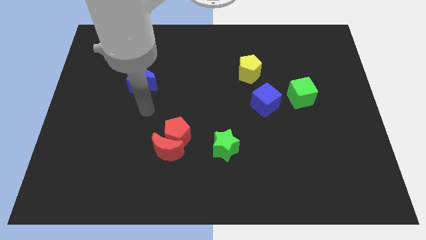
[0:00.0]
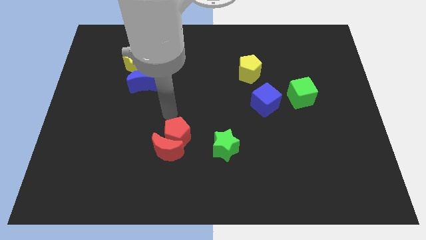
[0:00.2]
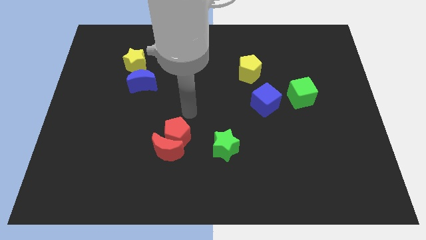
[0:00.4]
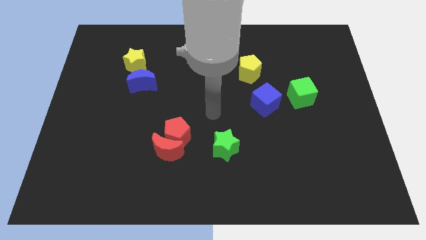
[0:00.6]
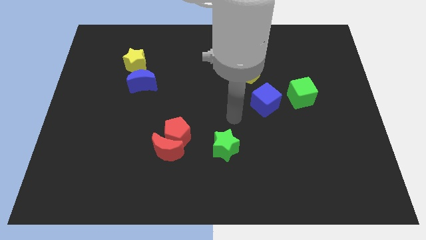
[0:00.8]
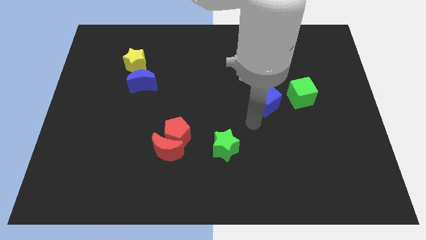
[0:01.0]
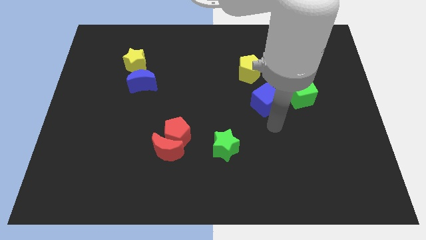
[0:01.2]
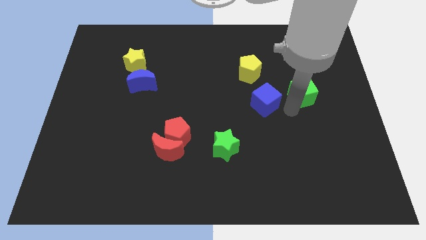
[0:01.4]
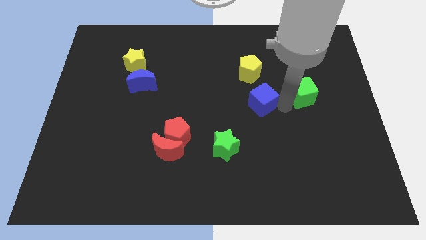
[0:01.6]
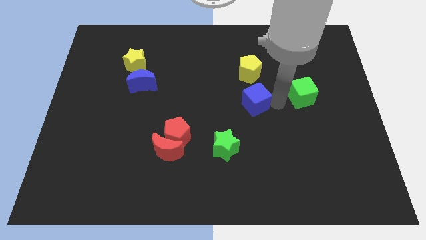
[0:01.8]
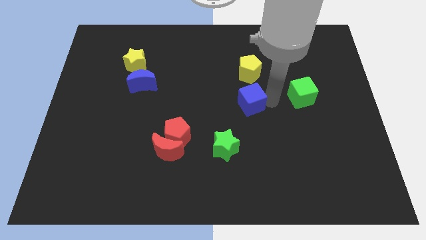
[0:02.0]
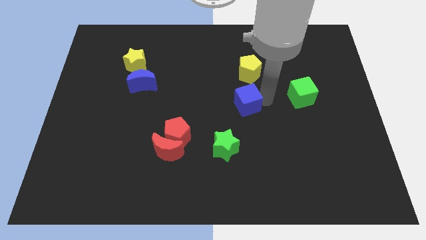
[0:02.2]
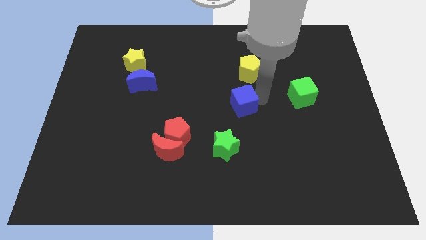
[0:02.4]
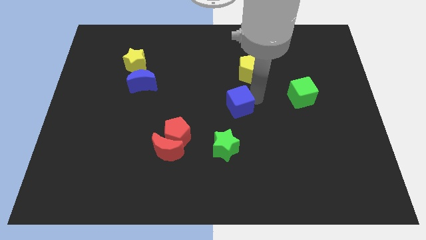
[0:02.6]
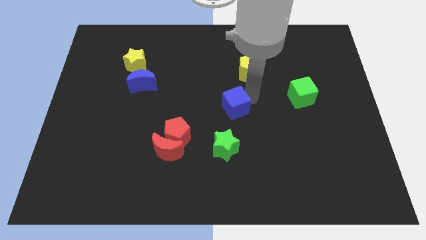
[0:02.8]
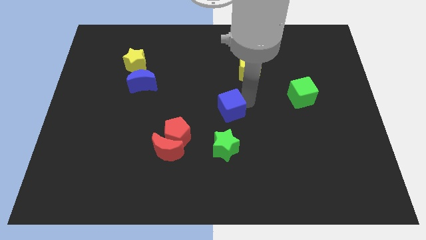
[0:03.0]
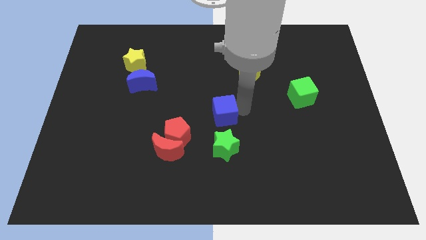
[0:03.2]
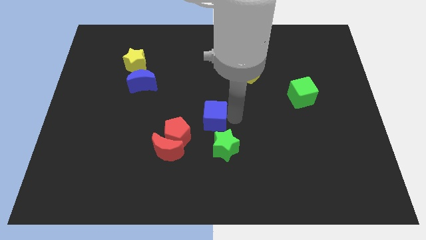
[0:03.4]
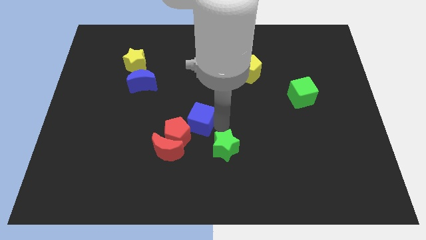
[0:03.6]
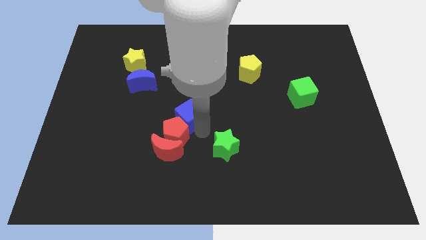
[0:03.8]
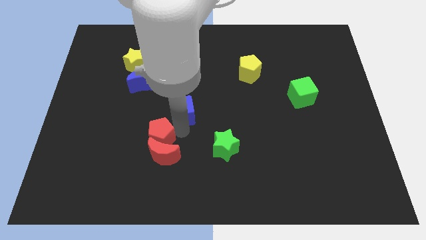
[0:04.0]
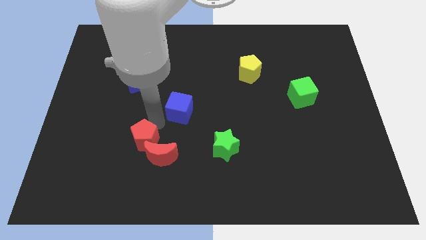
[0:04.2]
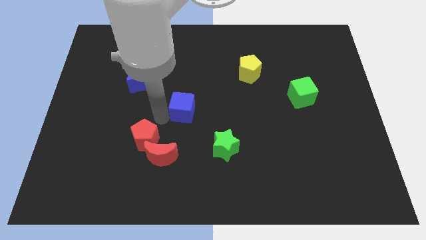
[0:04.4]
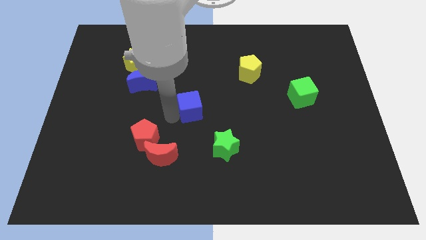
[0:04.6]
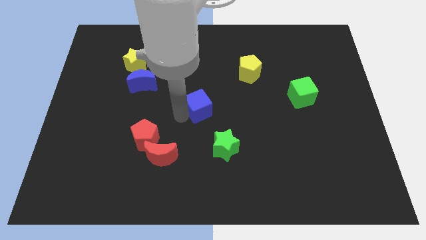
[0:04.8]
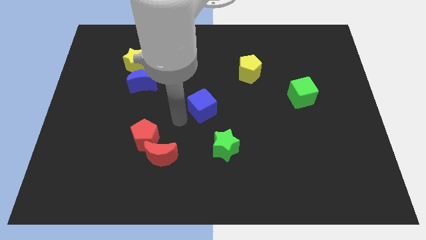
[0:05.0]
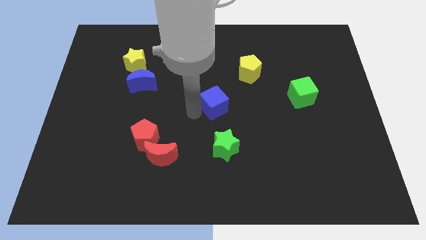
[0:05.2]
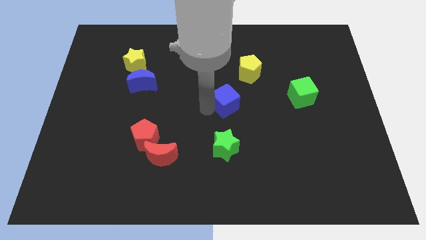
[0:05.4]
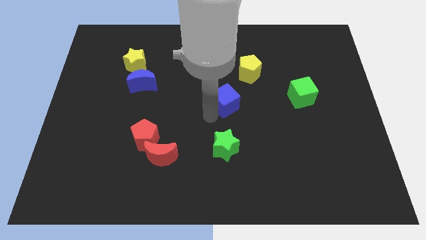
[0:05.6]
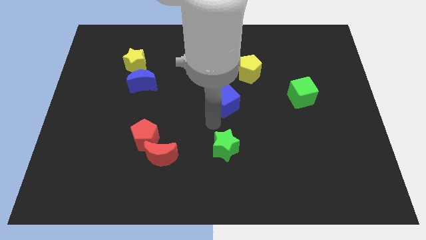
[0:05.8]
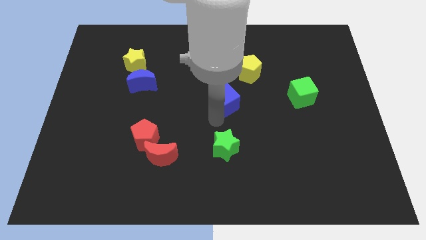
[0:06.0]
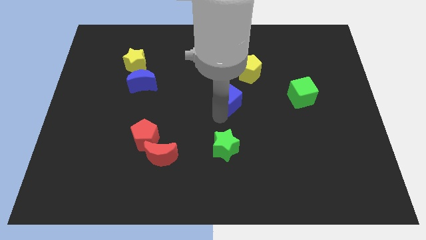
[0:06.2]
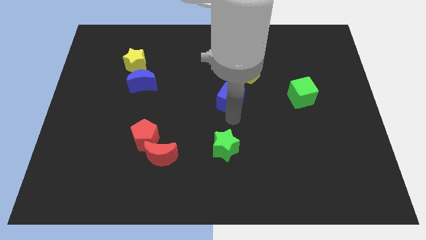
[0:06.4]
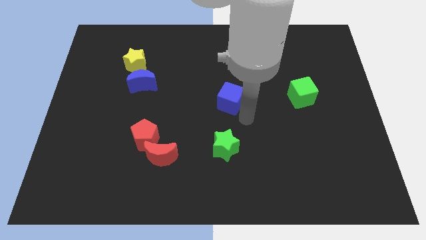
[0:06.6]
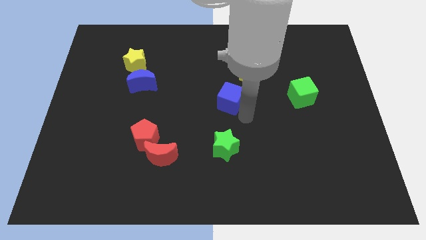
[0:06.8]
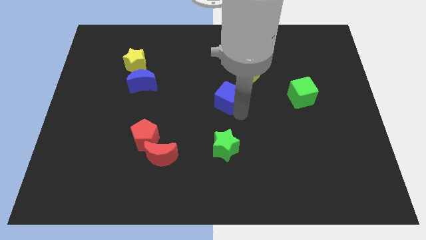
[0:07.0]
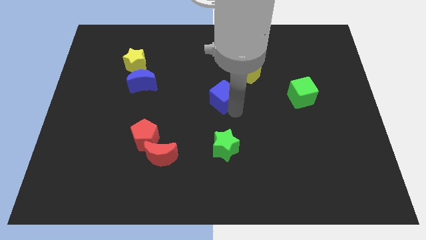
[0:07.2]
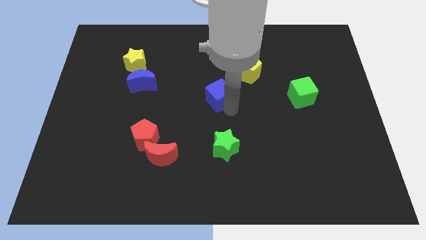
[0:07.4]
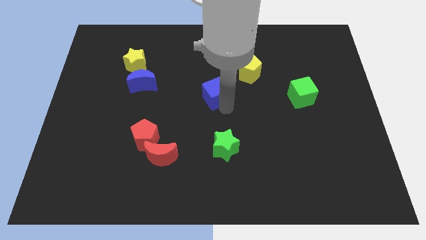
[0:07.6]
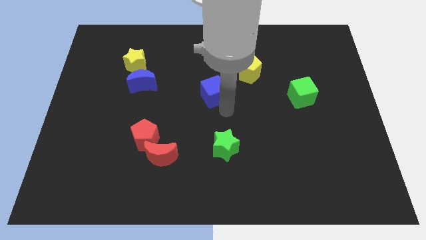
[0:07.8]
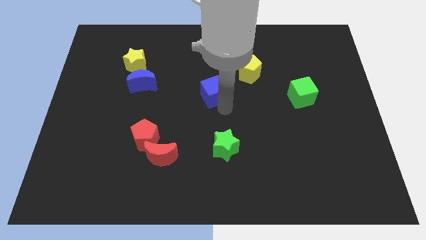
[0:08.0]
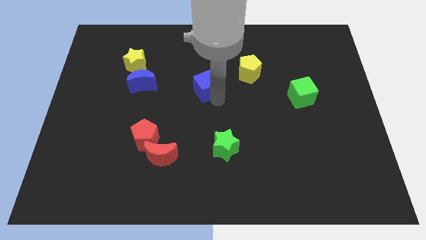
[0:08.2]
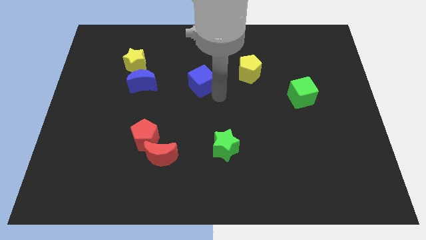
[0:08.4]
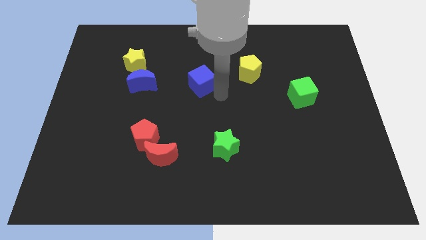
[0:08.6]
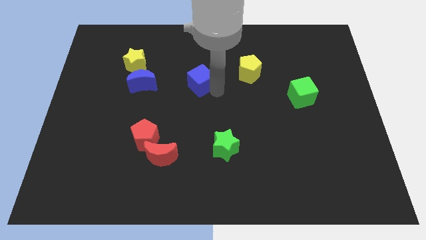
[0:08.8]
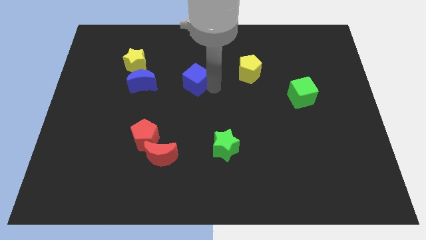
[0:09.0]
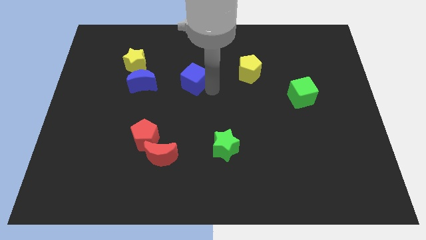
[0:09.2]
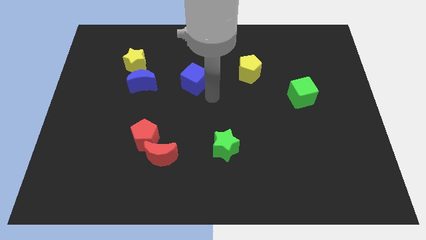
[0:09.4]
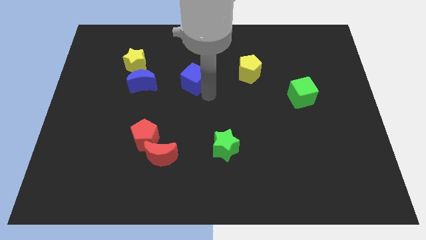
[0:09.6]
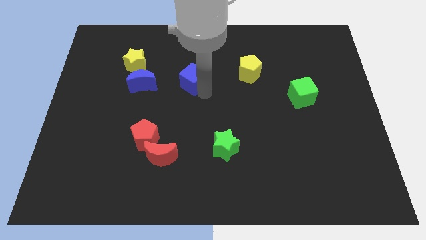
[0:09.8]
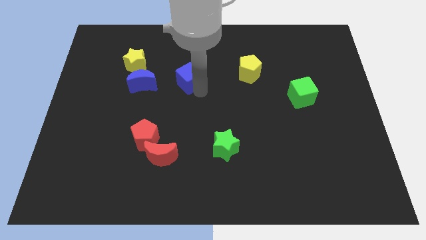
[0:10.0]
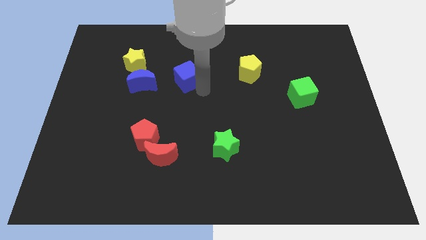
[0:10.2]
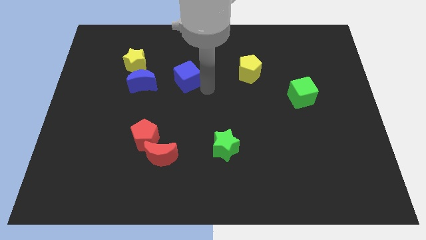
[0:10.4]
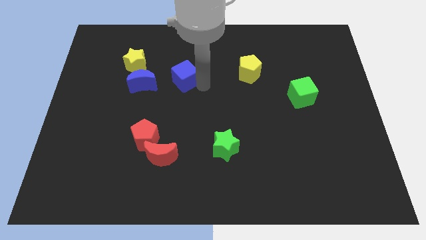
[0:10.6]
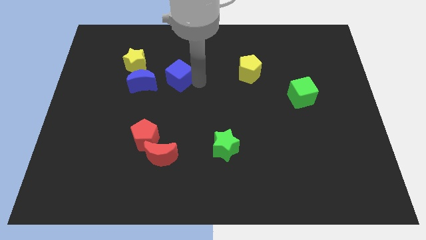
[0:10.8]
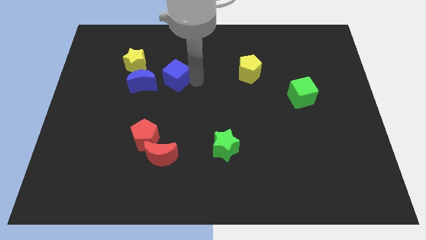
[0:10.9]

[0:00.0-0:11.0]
put the blue cube to the top right side of the blue moon

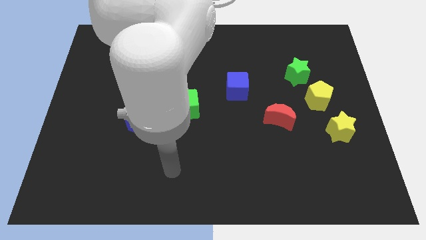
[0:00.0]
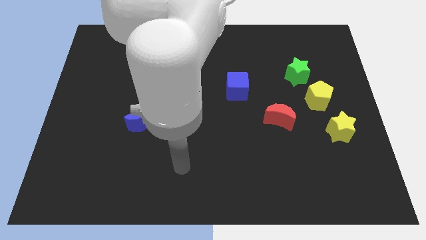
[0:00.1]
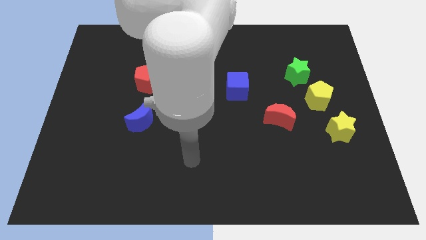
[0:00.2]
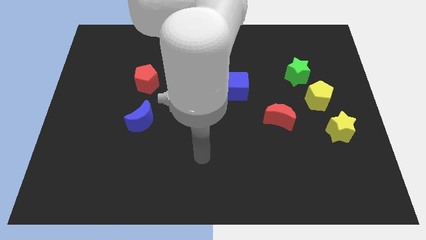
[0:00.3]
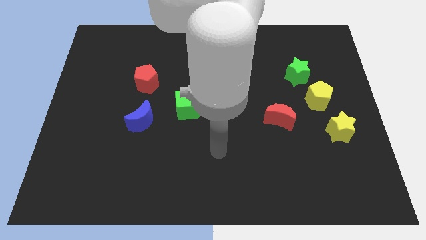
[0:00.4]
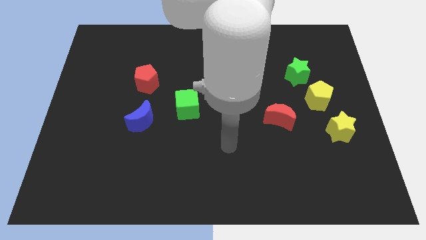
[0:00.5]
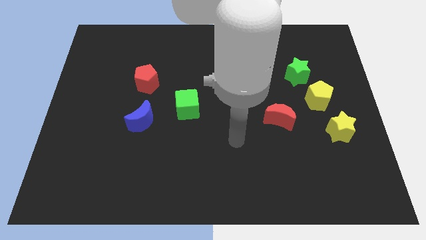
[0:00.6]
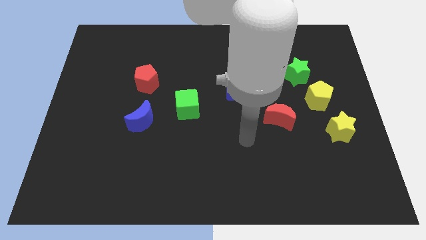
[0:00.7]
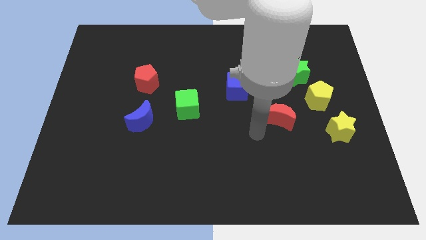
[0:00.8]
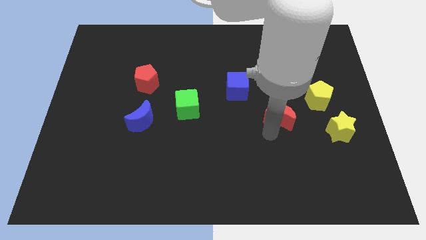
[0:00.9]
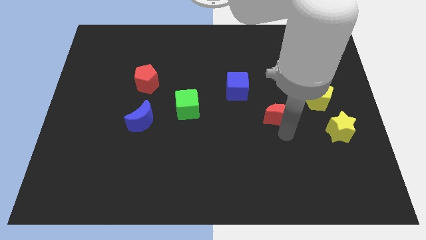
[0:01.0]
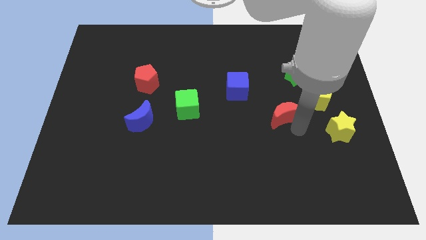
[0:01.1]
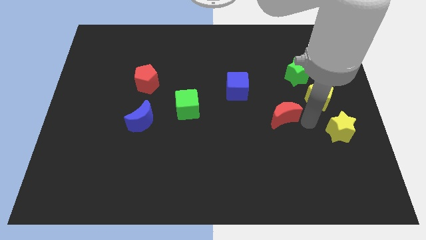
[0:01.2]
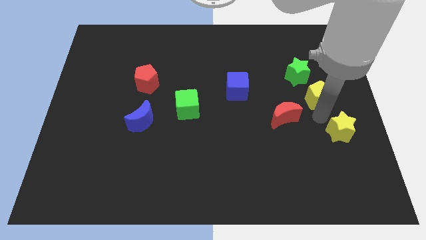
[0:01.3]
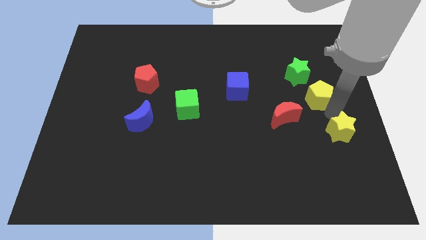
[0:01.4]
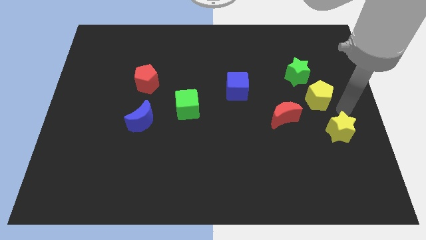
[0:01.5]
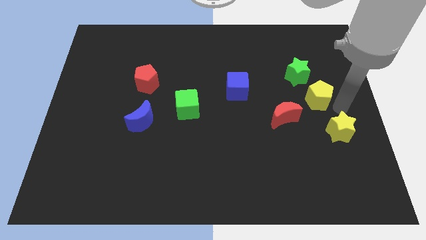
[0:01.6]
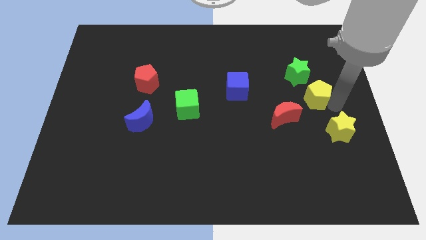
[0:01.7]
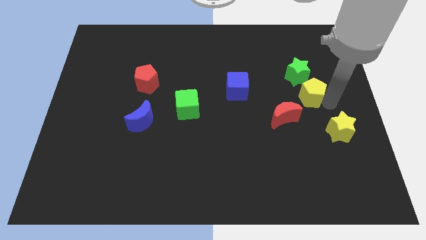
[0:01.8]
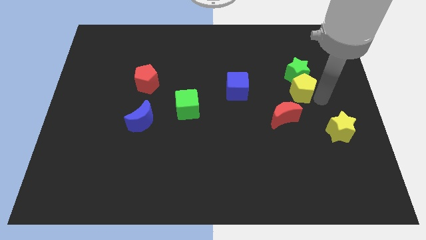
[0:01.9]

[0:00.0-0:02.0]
push the yellow pentagon to the bottom left side of the green star
